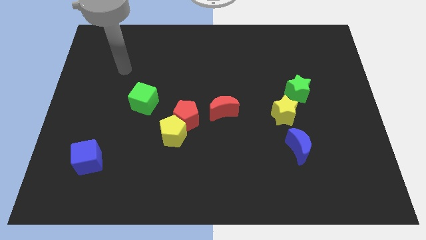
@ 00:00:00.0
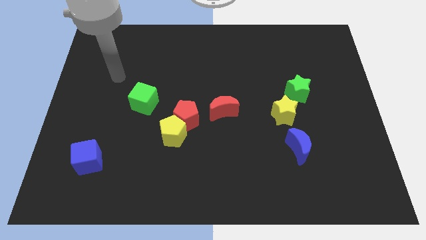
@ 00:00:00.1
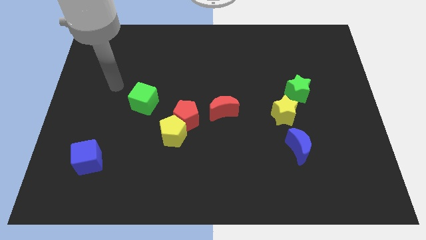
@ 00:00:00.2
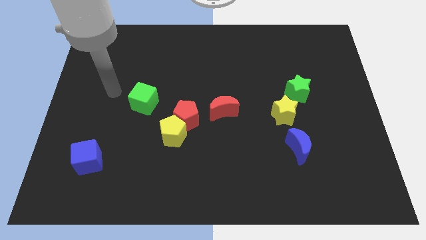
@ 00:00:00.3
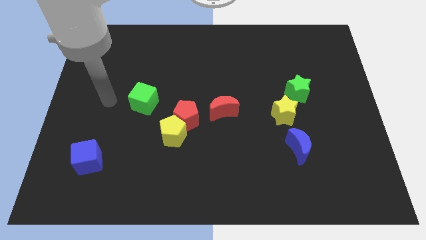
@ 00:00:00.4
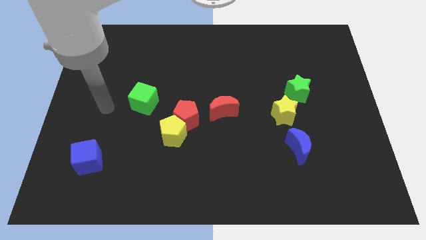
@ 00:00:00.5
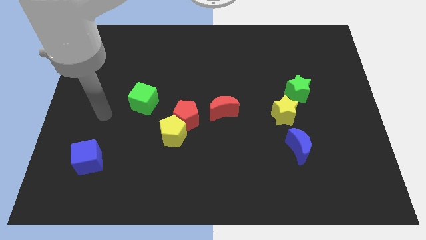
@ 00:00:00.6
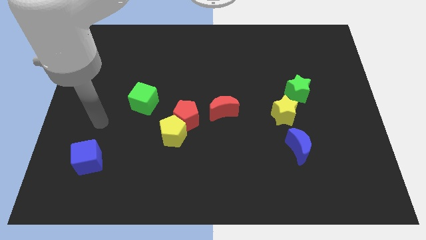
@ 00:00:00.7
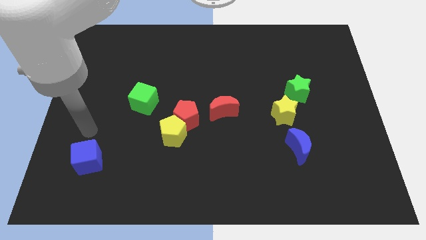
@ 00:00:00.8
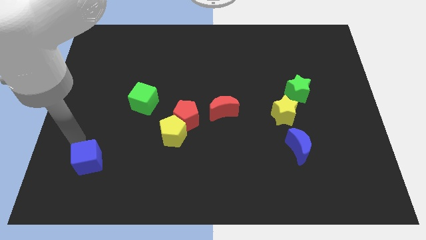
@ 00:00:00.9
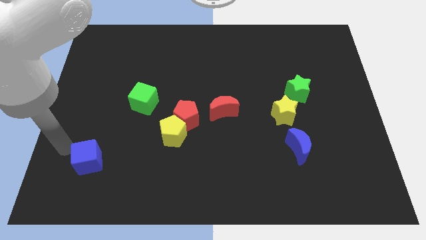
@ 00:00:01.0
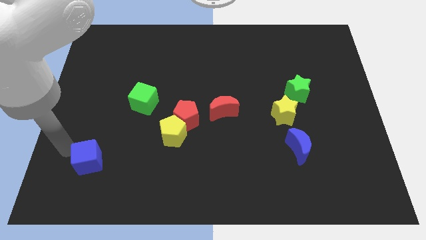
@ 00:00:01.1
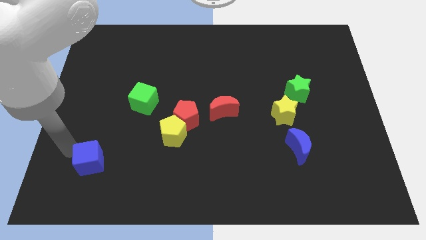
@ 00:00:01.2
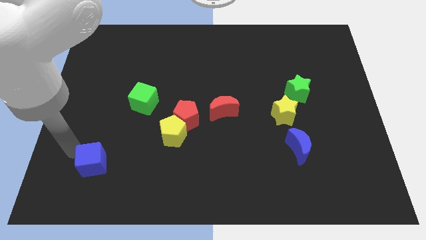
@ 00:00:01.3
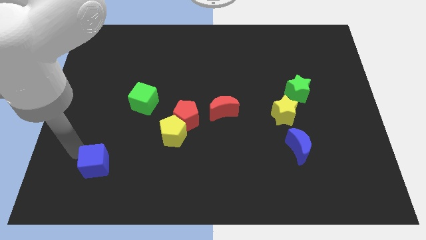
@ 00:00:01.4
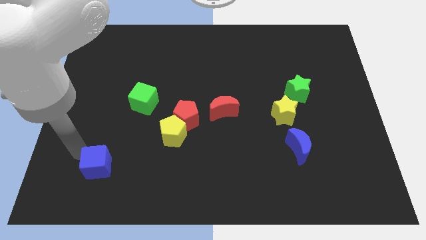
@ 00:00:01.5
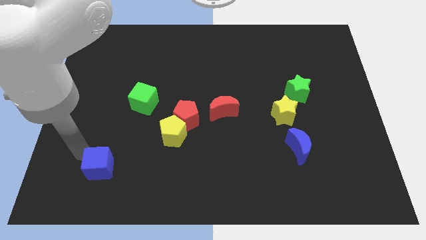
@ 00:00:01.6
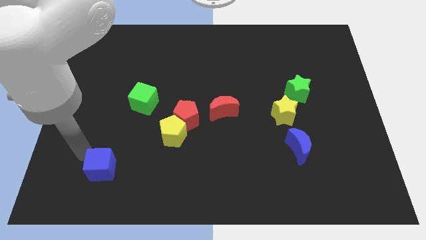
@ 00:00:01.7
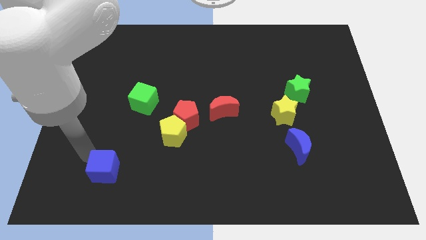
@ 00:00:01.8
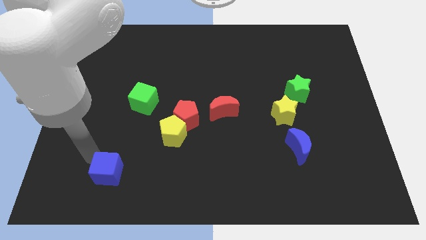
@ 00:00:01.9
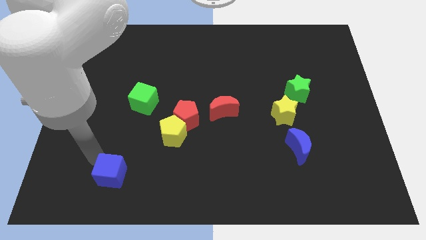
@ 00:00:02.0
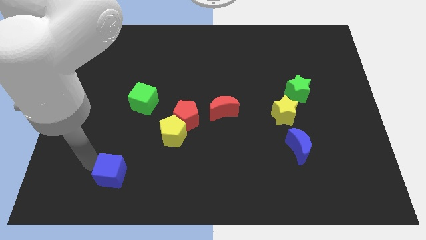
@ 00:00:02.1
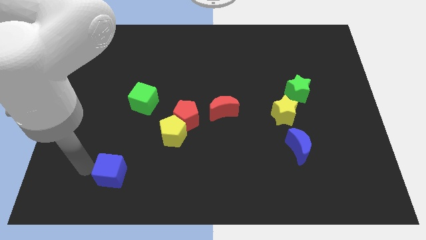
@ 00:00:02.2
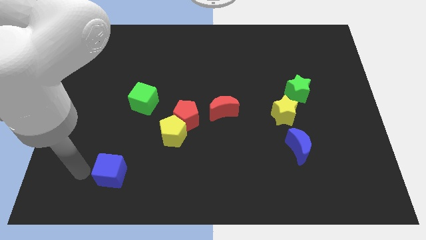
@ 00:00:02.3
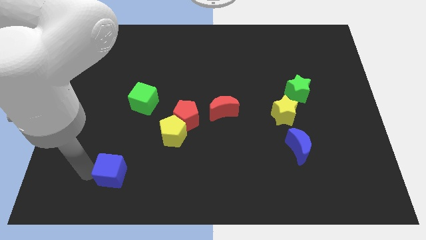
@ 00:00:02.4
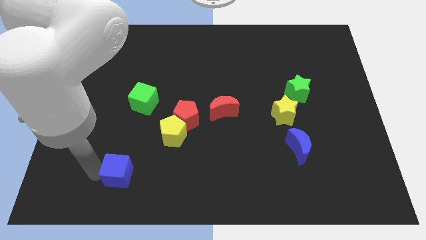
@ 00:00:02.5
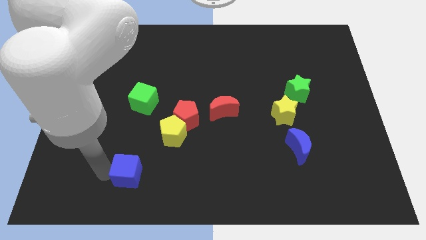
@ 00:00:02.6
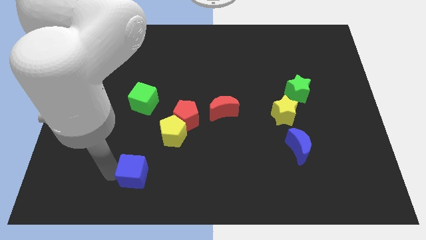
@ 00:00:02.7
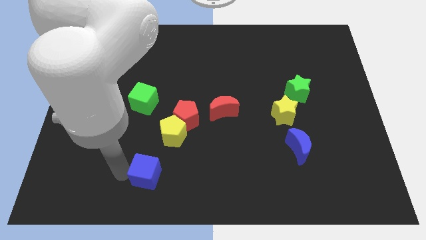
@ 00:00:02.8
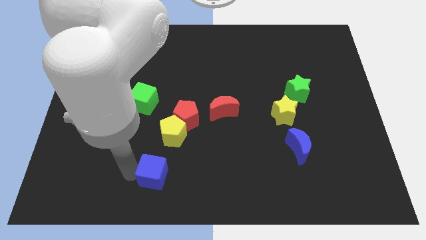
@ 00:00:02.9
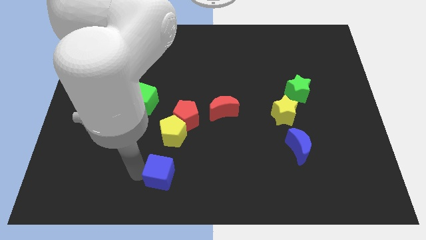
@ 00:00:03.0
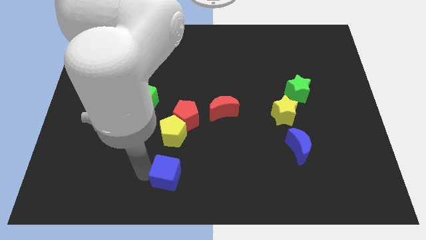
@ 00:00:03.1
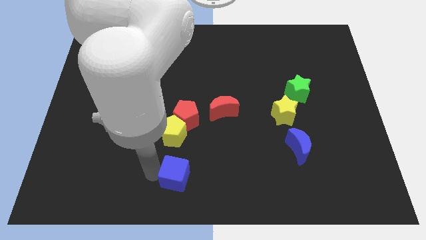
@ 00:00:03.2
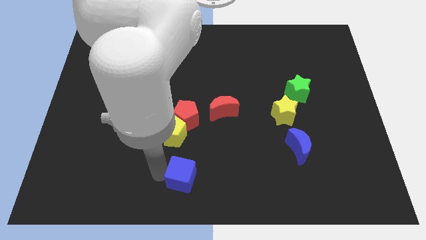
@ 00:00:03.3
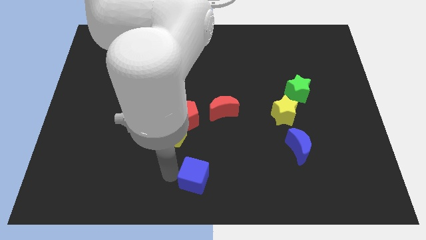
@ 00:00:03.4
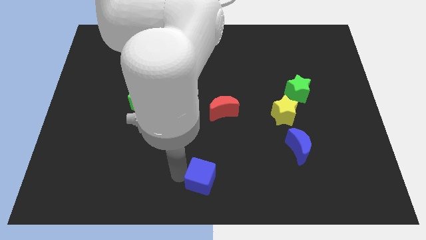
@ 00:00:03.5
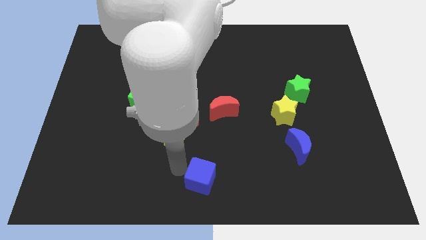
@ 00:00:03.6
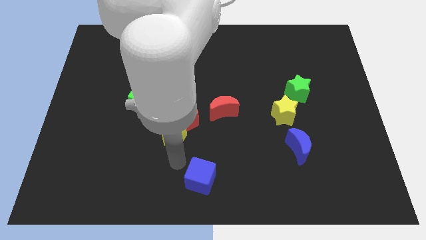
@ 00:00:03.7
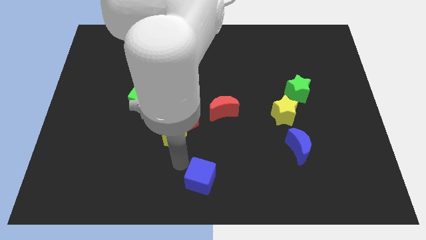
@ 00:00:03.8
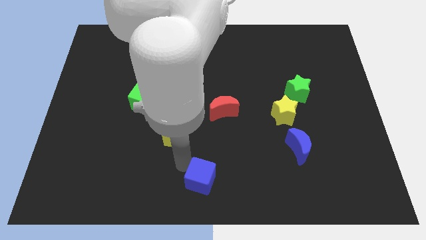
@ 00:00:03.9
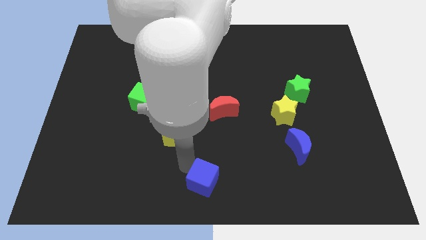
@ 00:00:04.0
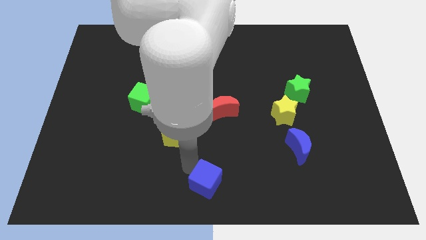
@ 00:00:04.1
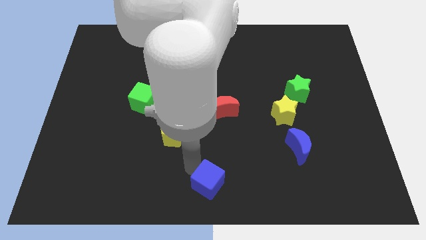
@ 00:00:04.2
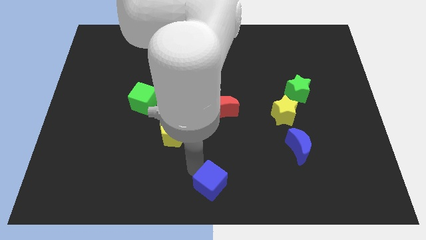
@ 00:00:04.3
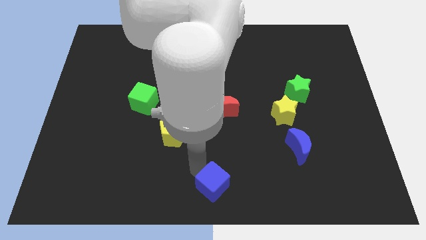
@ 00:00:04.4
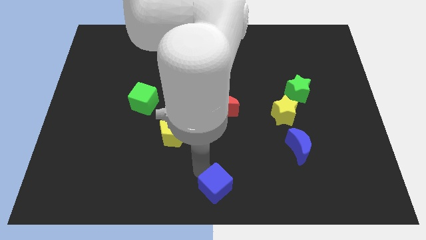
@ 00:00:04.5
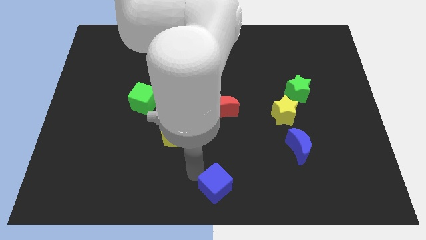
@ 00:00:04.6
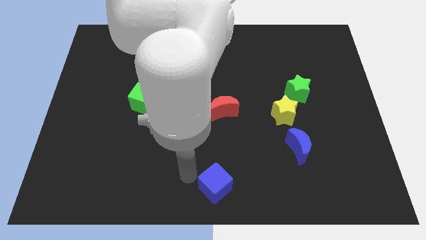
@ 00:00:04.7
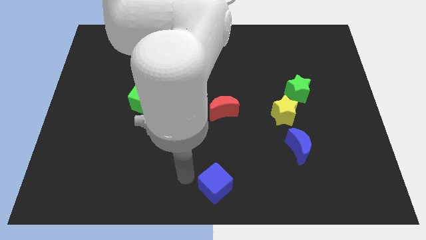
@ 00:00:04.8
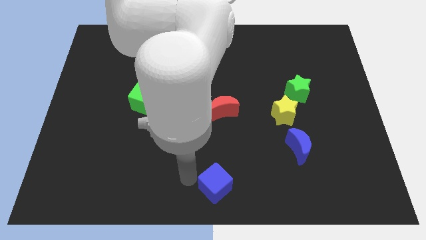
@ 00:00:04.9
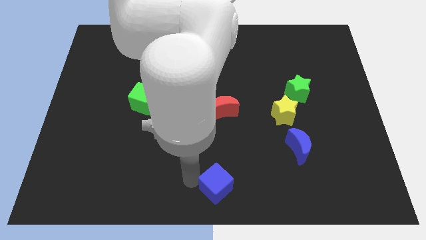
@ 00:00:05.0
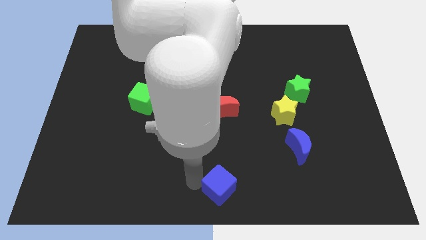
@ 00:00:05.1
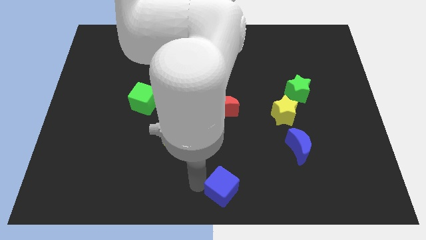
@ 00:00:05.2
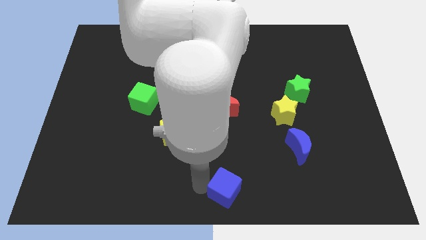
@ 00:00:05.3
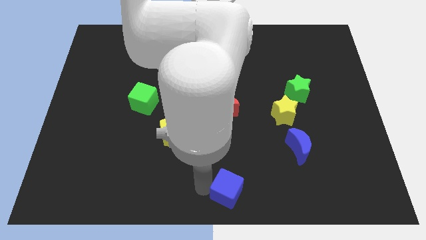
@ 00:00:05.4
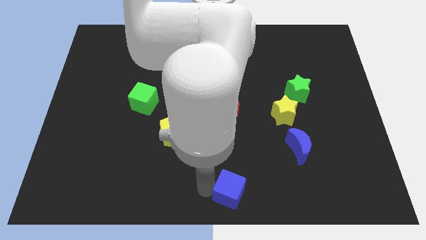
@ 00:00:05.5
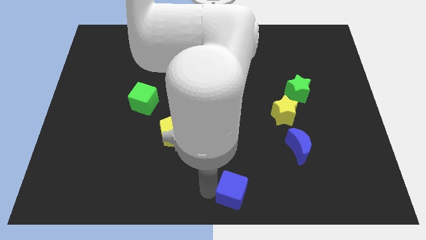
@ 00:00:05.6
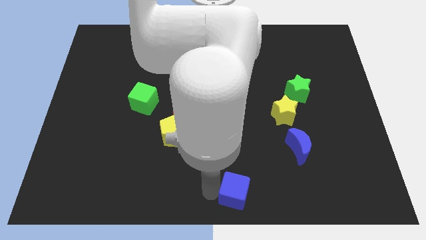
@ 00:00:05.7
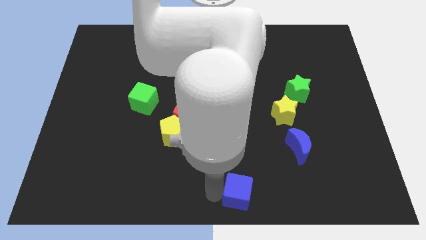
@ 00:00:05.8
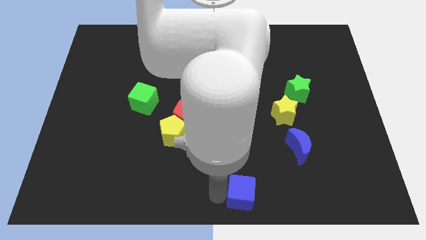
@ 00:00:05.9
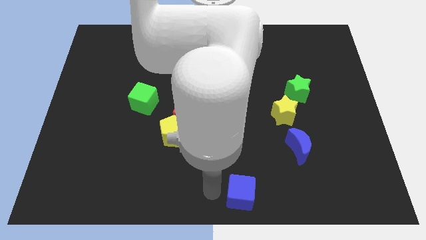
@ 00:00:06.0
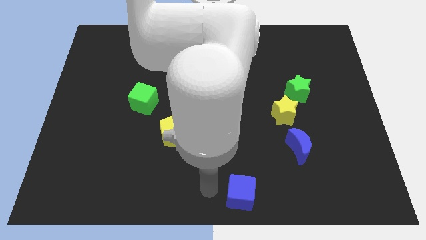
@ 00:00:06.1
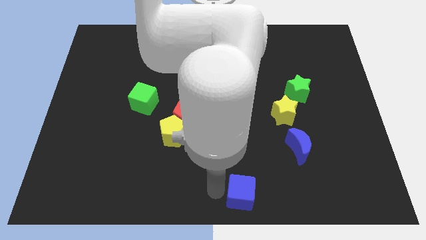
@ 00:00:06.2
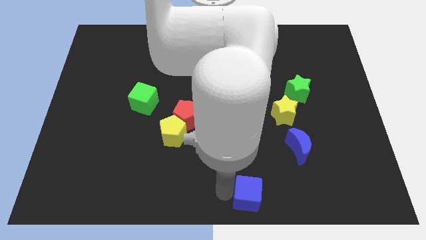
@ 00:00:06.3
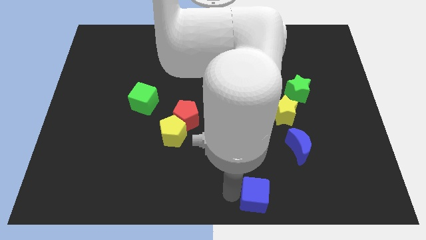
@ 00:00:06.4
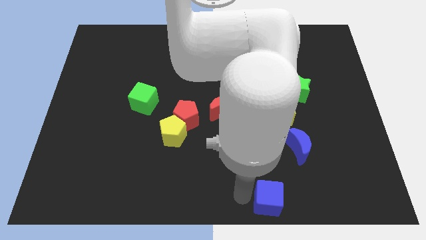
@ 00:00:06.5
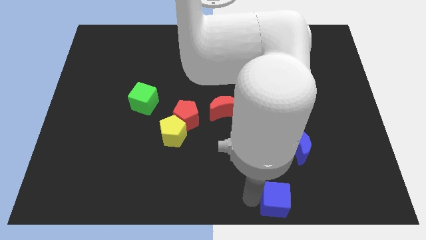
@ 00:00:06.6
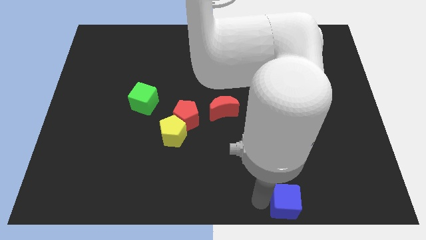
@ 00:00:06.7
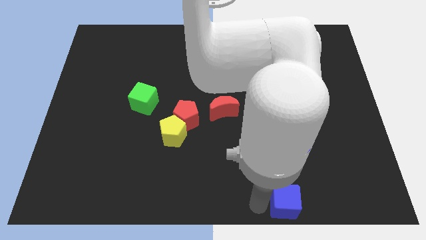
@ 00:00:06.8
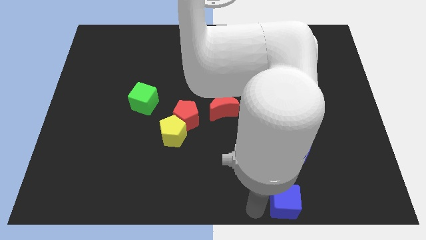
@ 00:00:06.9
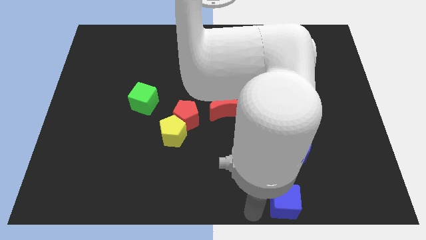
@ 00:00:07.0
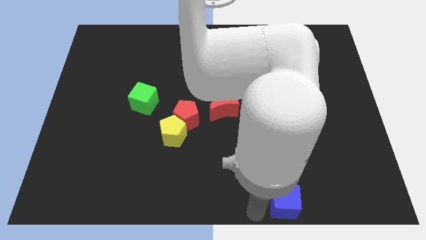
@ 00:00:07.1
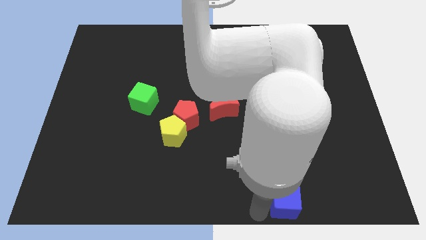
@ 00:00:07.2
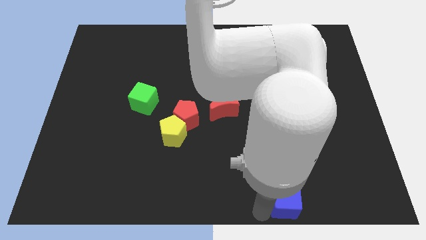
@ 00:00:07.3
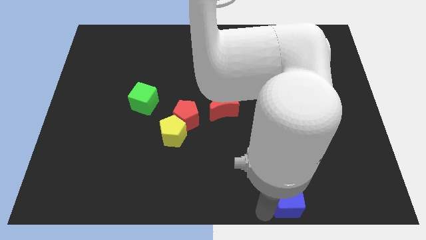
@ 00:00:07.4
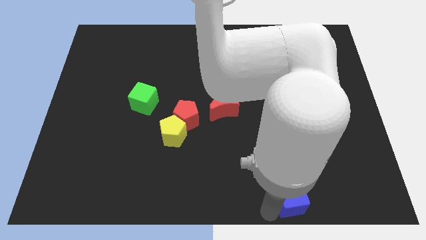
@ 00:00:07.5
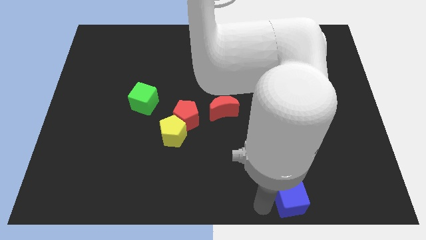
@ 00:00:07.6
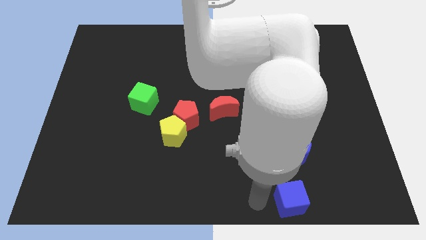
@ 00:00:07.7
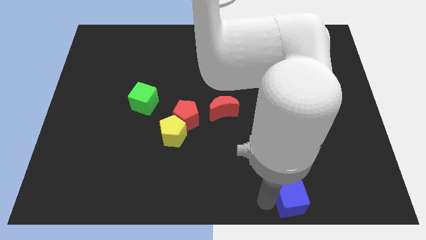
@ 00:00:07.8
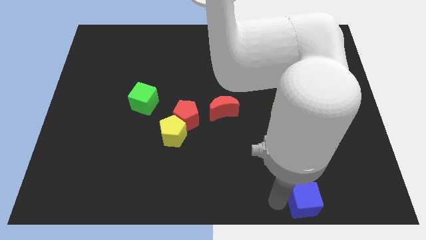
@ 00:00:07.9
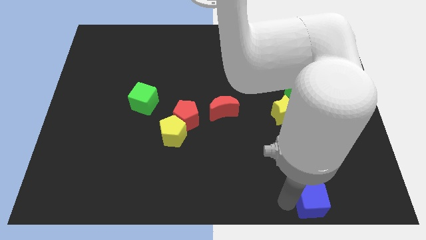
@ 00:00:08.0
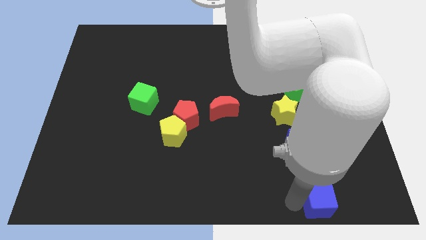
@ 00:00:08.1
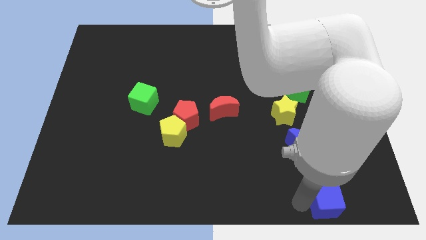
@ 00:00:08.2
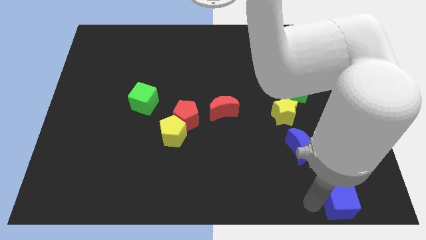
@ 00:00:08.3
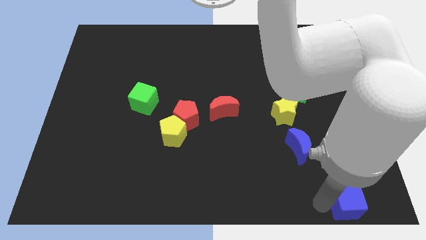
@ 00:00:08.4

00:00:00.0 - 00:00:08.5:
put the blue cube to the bottom right corner
